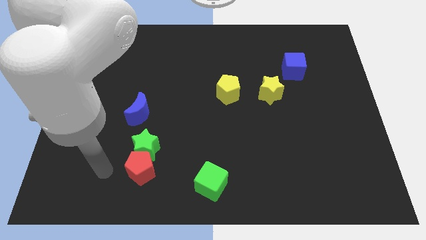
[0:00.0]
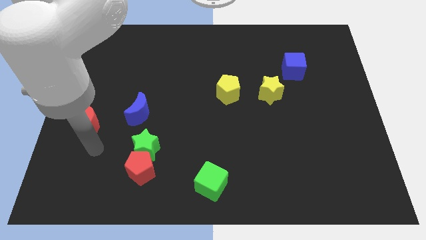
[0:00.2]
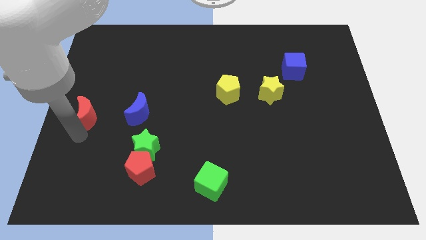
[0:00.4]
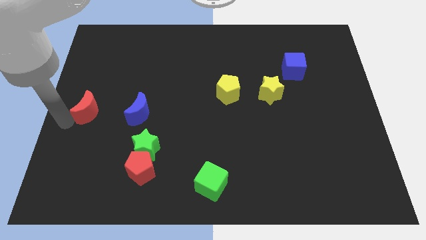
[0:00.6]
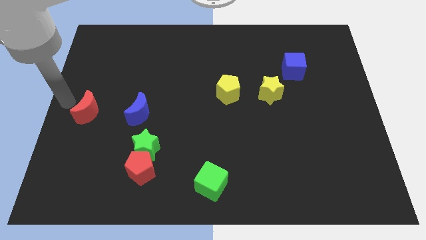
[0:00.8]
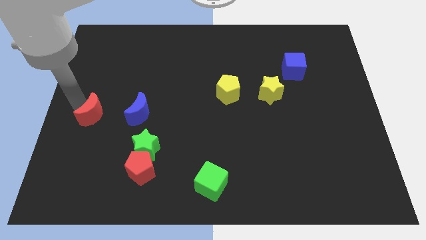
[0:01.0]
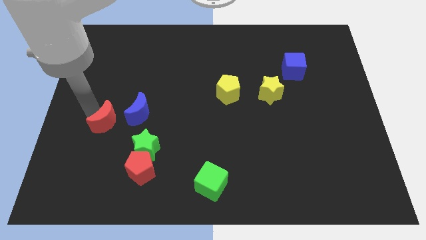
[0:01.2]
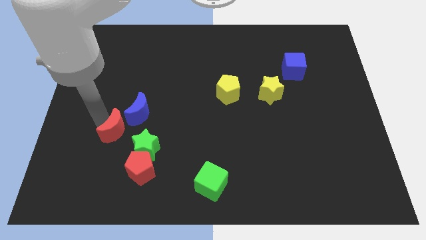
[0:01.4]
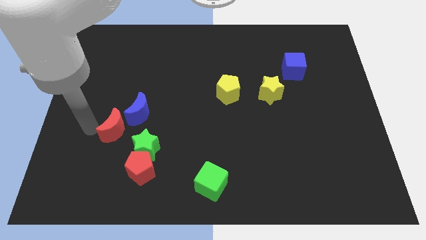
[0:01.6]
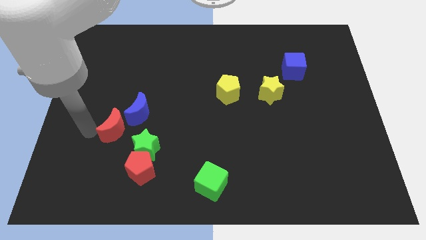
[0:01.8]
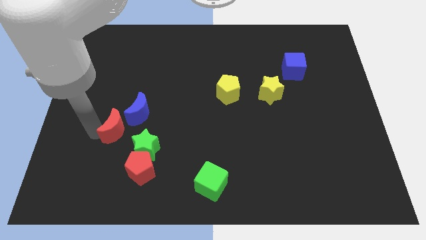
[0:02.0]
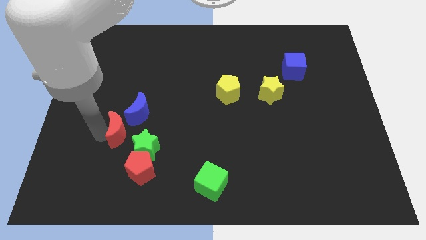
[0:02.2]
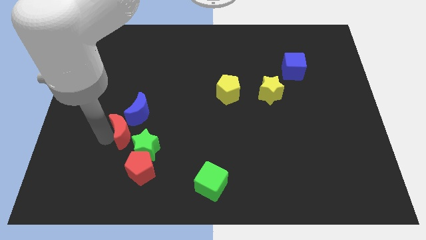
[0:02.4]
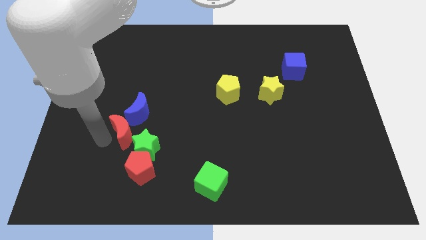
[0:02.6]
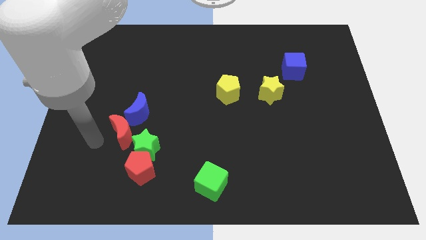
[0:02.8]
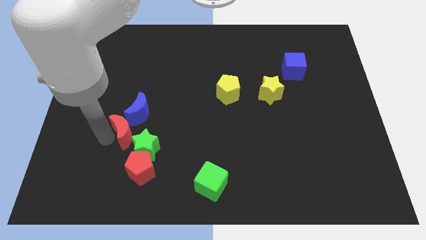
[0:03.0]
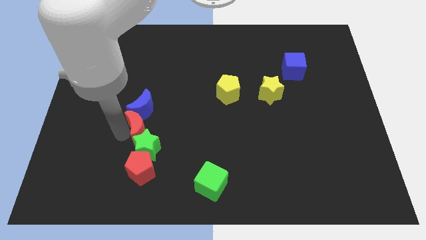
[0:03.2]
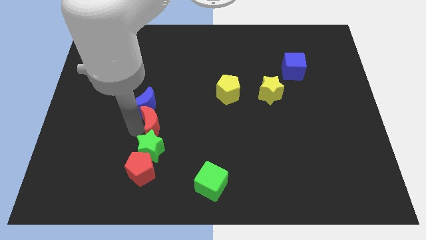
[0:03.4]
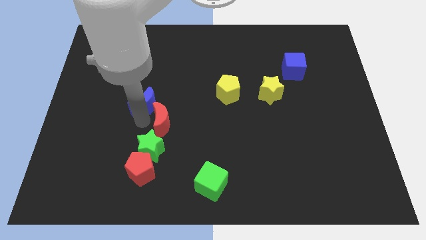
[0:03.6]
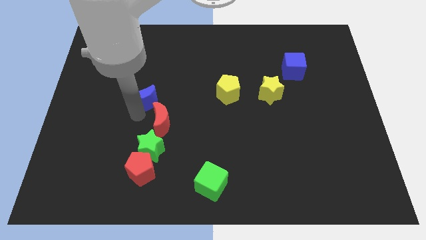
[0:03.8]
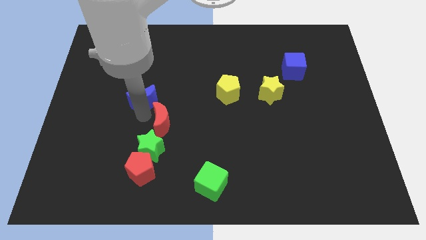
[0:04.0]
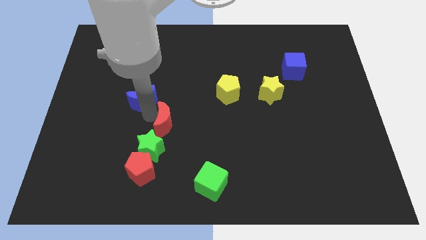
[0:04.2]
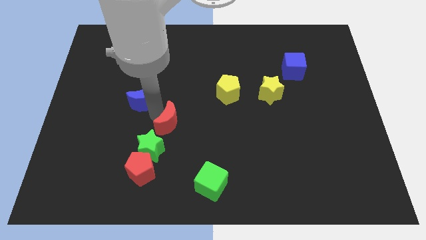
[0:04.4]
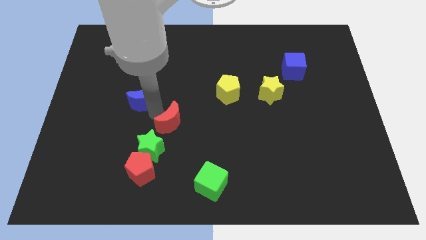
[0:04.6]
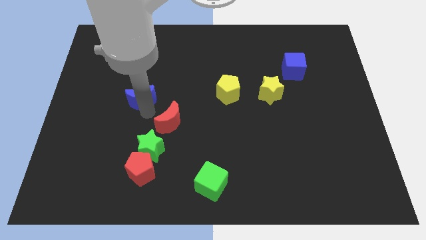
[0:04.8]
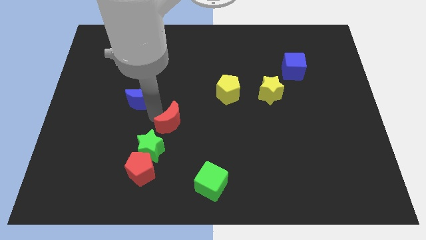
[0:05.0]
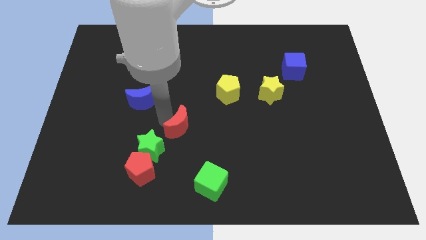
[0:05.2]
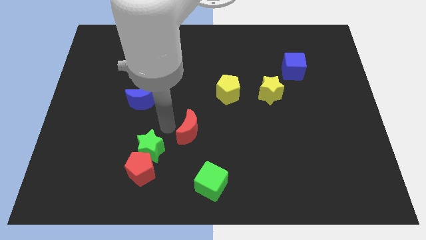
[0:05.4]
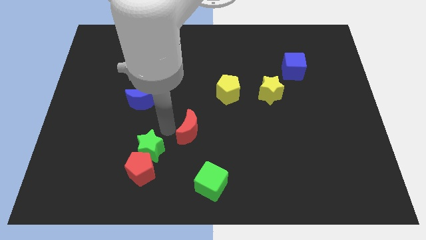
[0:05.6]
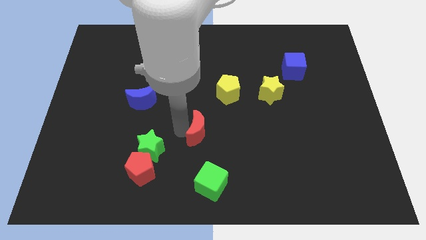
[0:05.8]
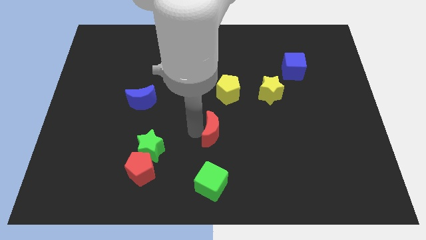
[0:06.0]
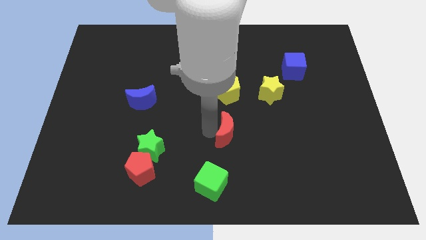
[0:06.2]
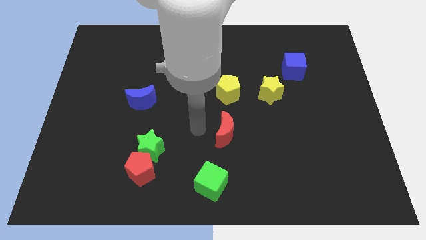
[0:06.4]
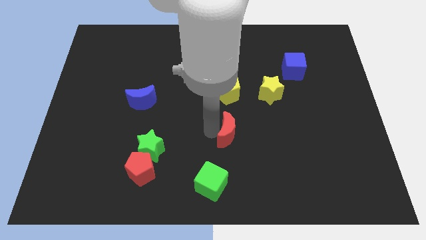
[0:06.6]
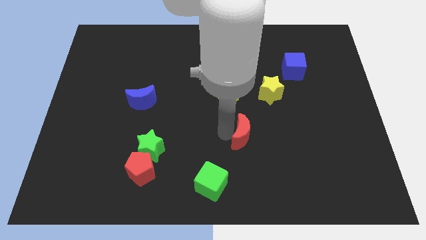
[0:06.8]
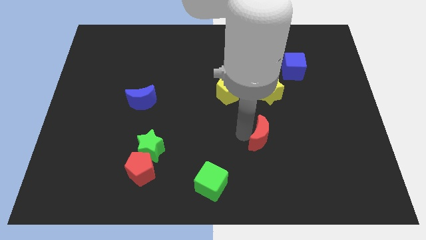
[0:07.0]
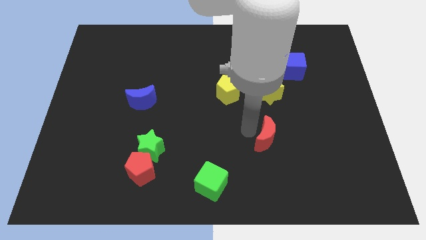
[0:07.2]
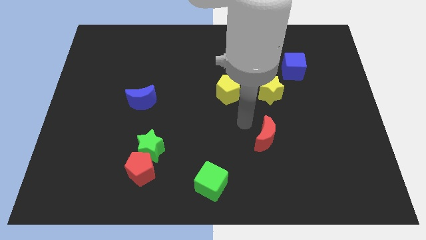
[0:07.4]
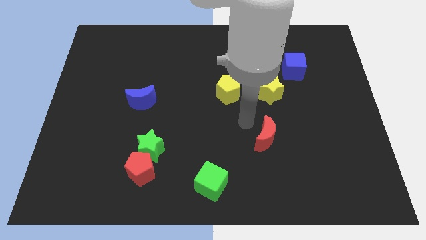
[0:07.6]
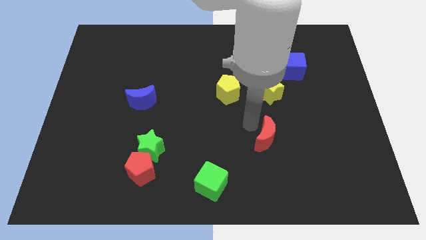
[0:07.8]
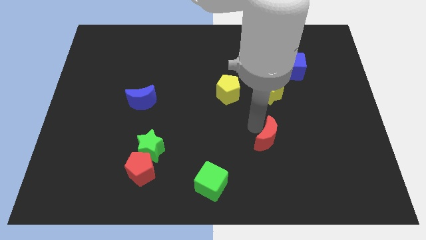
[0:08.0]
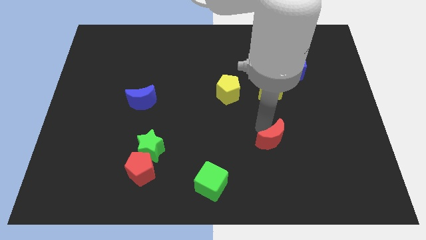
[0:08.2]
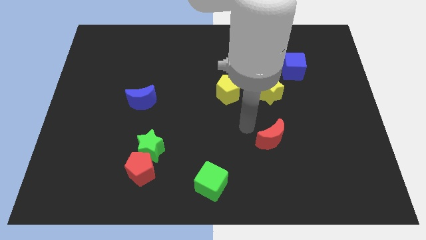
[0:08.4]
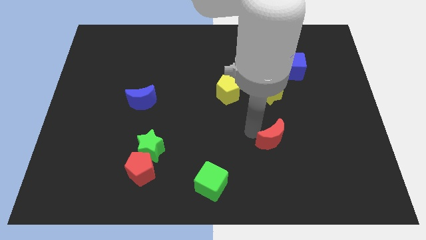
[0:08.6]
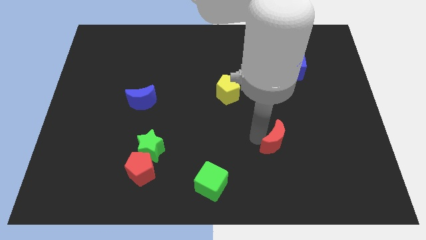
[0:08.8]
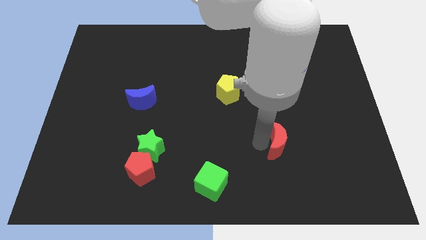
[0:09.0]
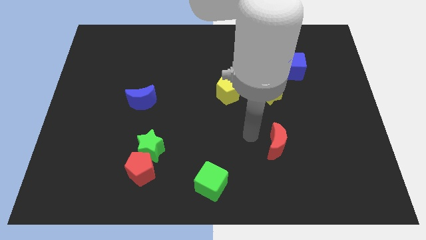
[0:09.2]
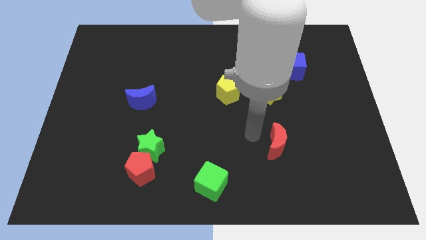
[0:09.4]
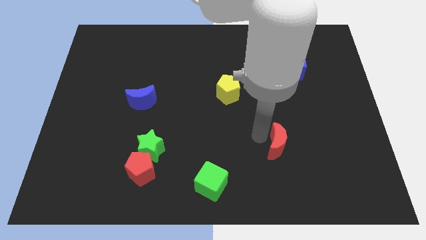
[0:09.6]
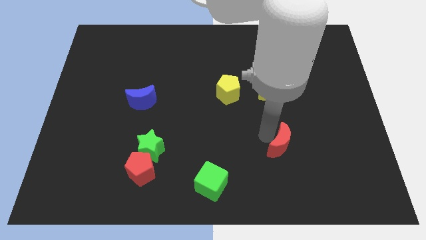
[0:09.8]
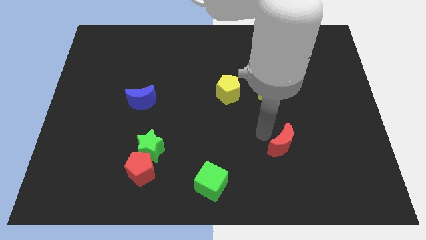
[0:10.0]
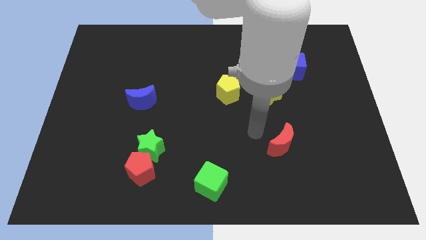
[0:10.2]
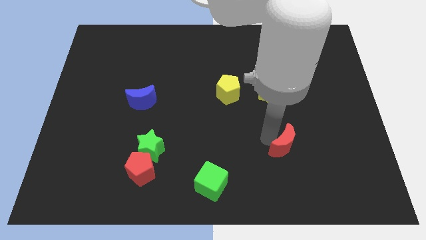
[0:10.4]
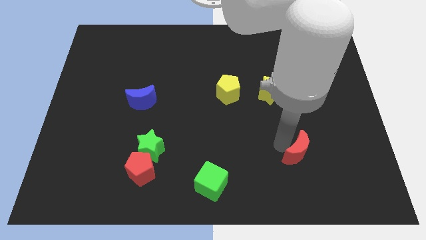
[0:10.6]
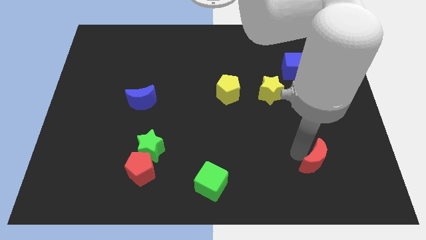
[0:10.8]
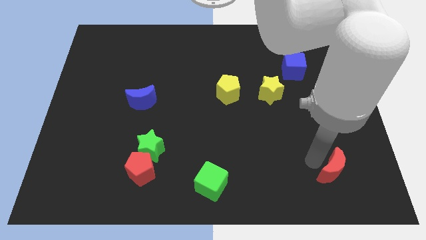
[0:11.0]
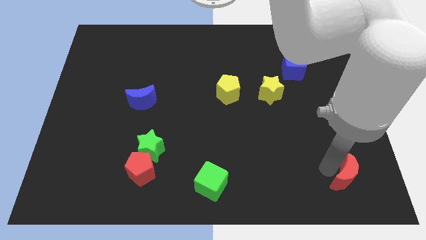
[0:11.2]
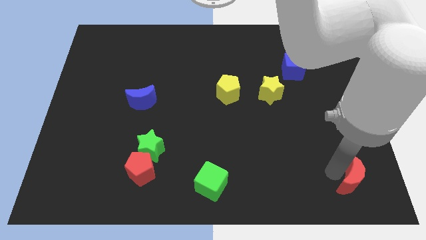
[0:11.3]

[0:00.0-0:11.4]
move the red moon to the bottom right of the board

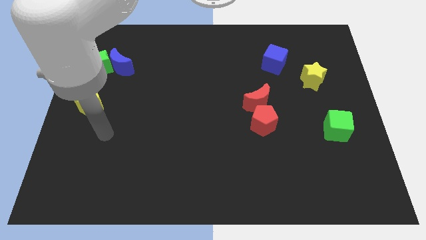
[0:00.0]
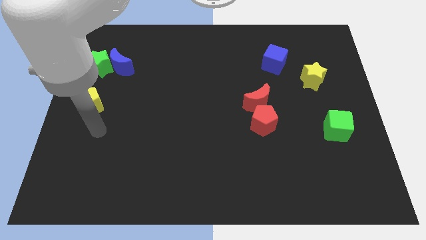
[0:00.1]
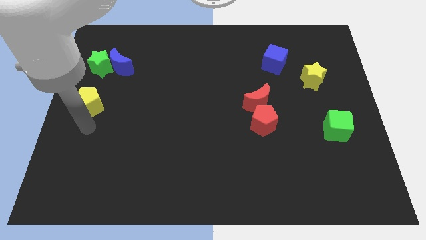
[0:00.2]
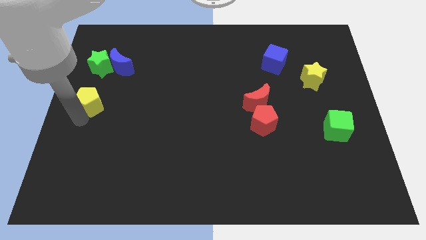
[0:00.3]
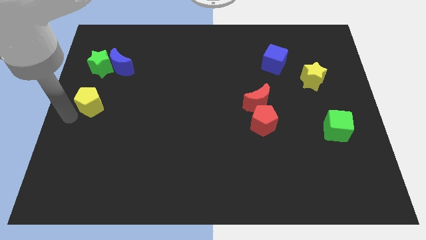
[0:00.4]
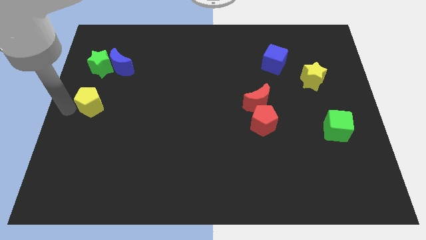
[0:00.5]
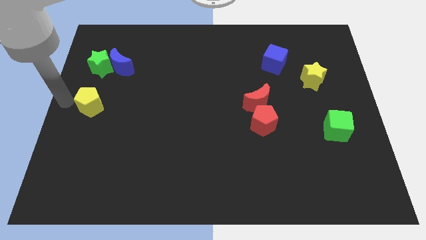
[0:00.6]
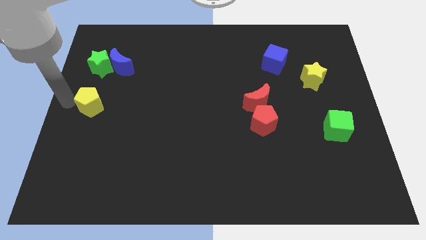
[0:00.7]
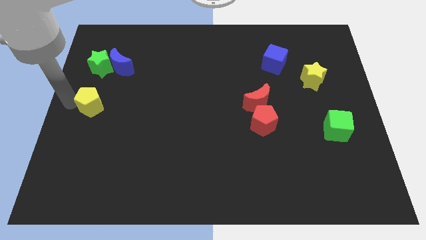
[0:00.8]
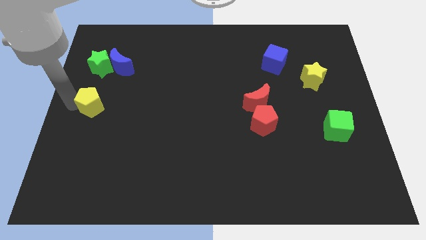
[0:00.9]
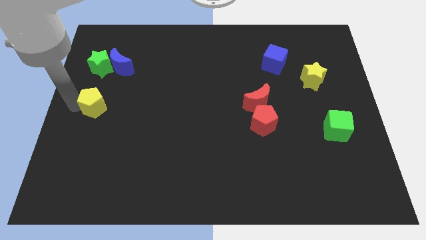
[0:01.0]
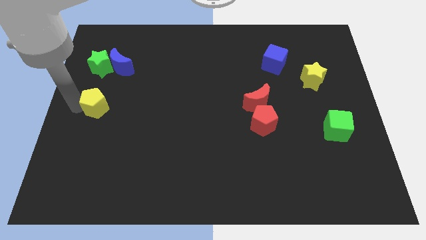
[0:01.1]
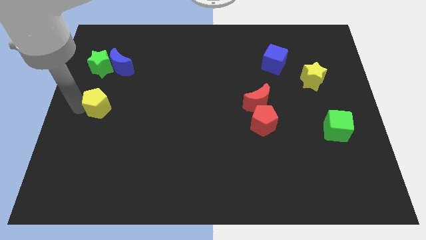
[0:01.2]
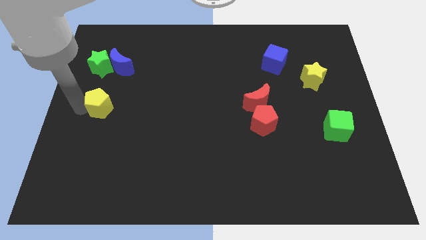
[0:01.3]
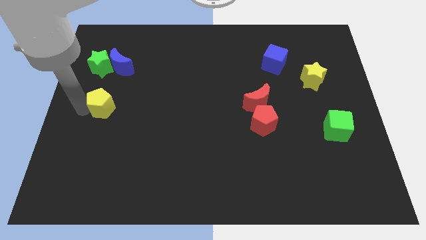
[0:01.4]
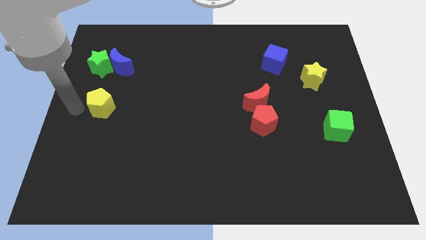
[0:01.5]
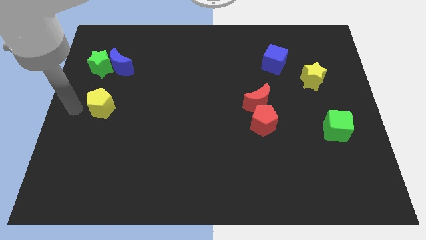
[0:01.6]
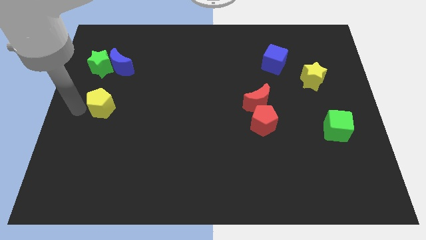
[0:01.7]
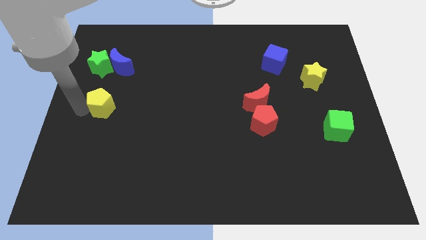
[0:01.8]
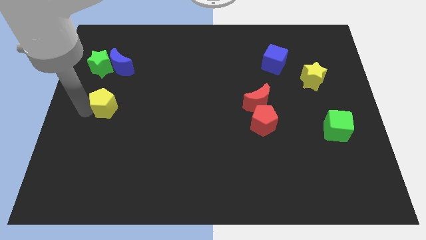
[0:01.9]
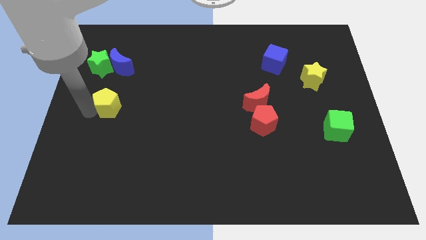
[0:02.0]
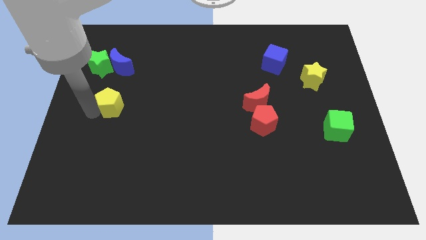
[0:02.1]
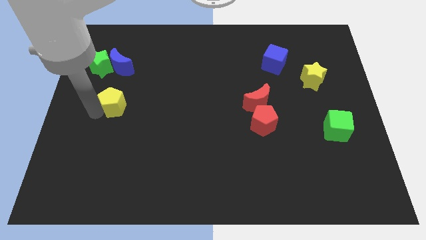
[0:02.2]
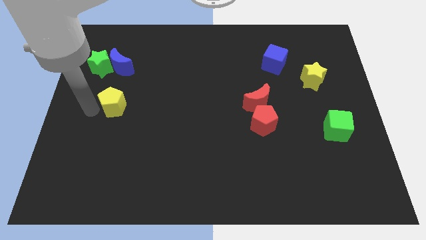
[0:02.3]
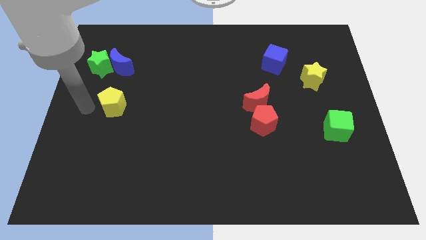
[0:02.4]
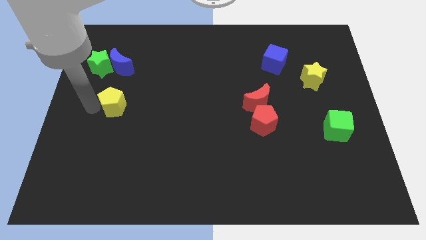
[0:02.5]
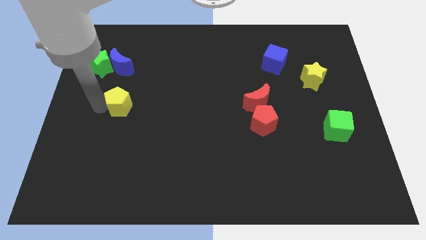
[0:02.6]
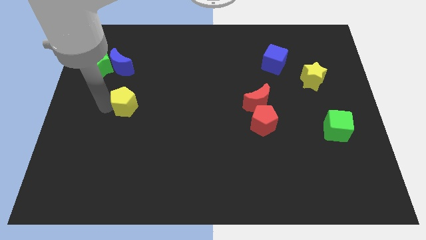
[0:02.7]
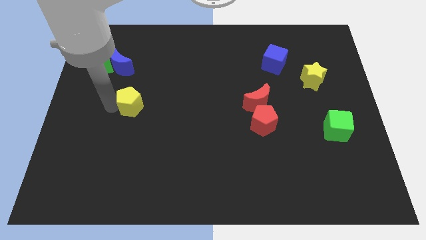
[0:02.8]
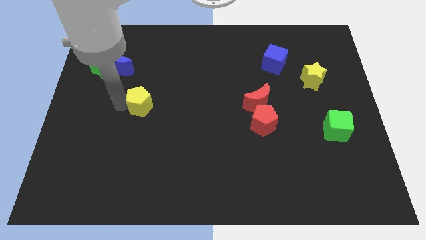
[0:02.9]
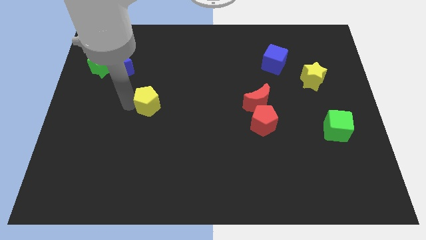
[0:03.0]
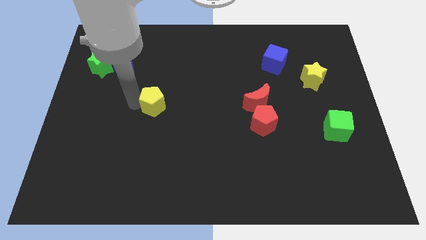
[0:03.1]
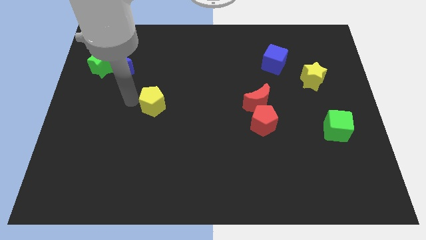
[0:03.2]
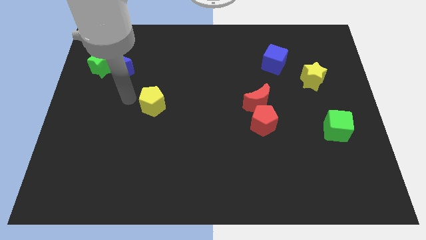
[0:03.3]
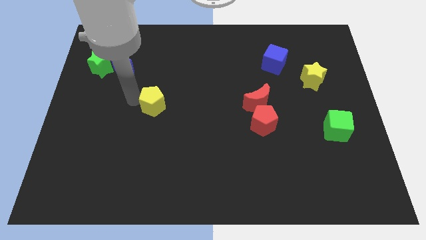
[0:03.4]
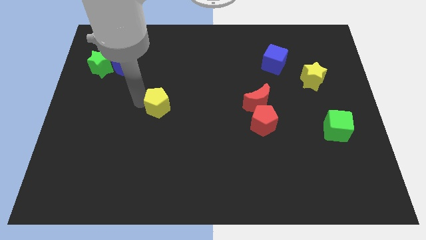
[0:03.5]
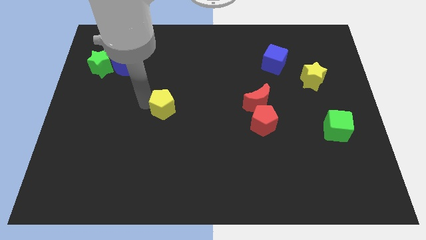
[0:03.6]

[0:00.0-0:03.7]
put the yellow pentagon to the center of the board
